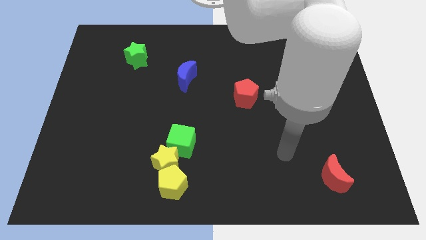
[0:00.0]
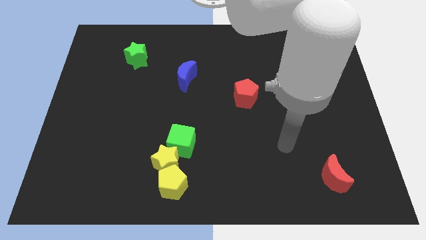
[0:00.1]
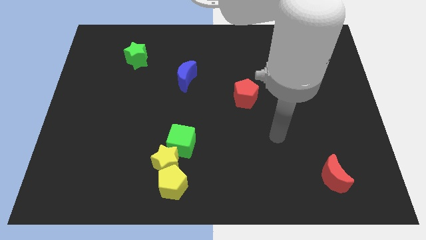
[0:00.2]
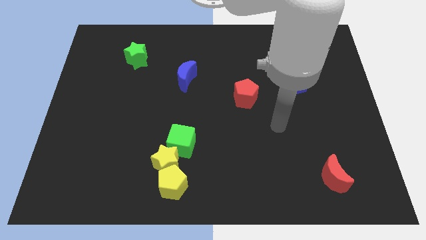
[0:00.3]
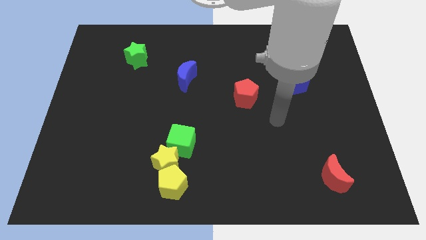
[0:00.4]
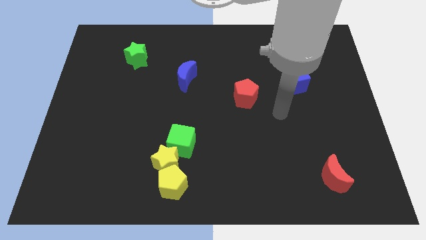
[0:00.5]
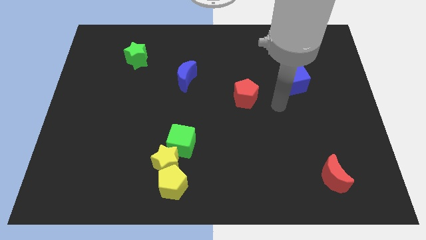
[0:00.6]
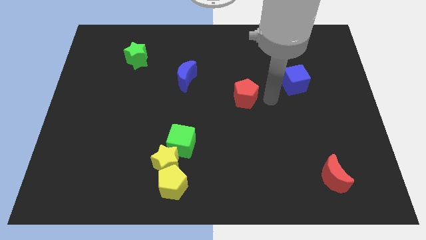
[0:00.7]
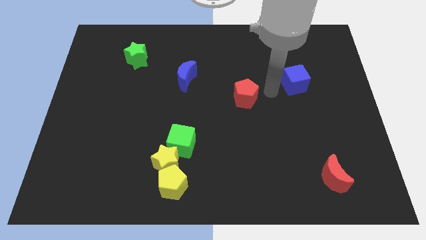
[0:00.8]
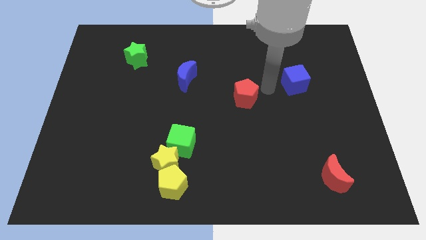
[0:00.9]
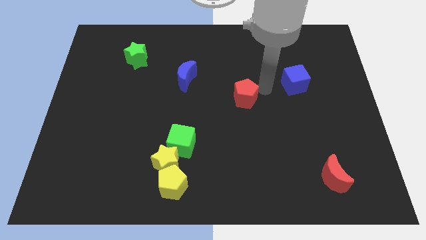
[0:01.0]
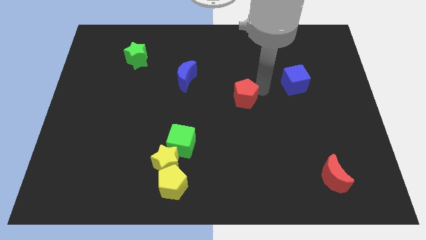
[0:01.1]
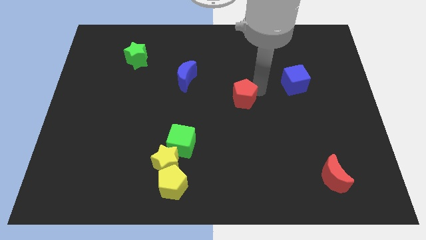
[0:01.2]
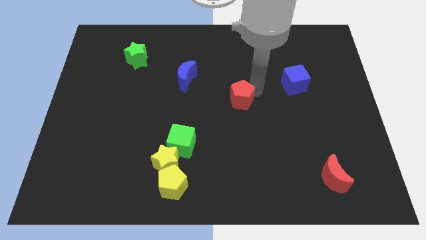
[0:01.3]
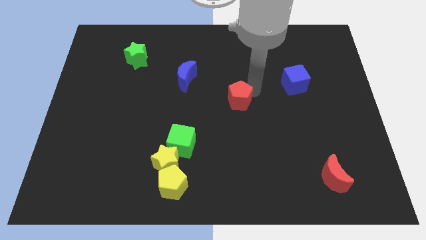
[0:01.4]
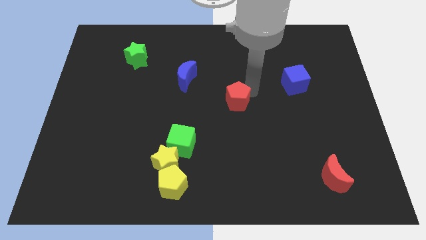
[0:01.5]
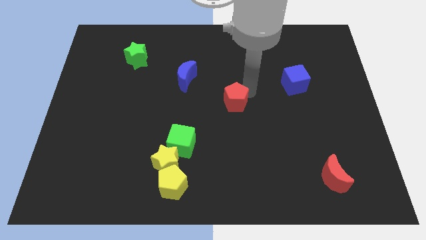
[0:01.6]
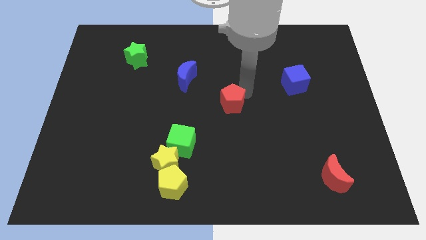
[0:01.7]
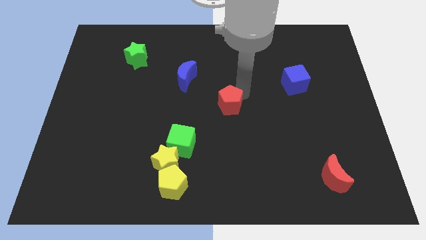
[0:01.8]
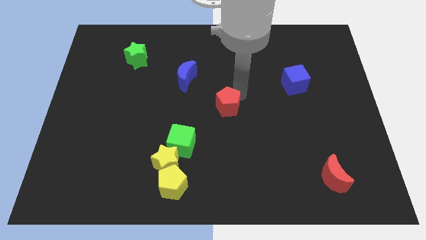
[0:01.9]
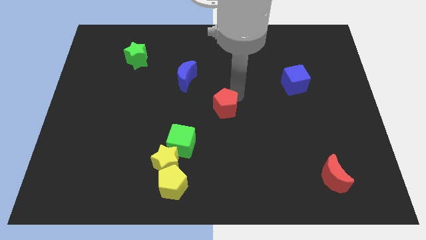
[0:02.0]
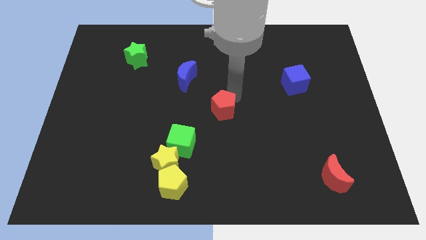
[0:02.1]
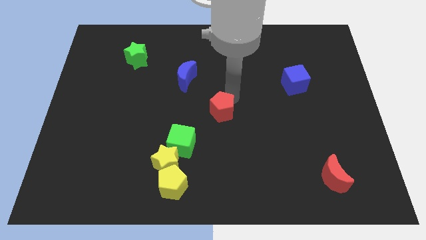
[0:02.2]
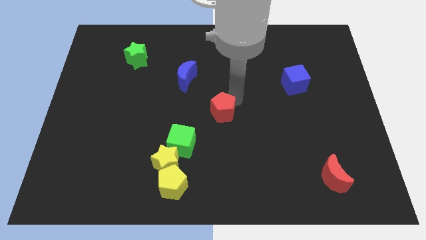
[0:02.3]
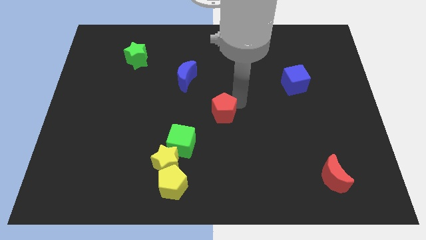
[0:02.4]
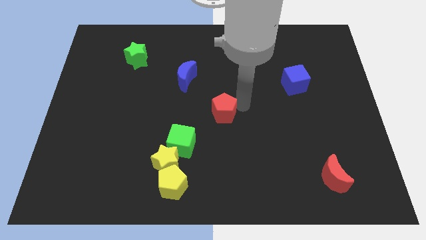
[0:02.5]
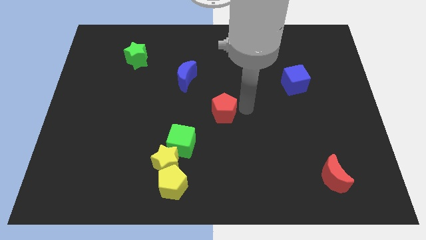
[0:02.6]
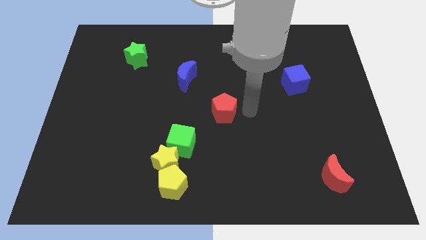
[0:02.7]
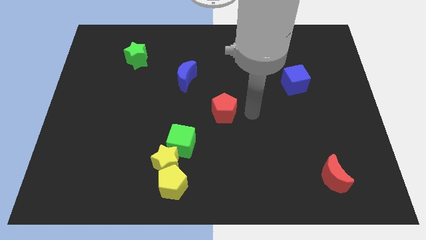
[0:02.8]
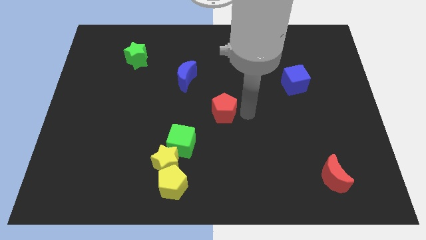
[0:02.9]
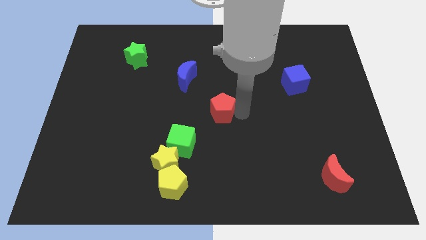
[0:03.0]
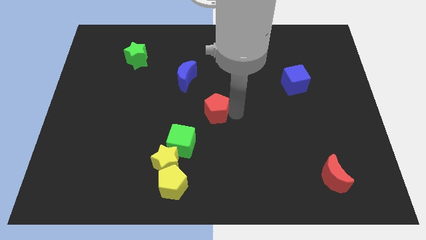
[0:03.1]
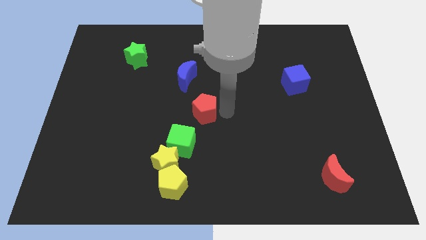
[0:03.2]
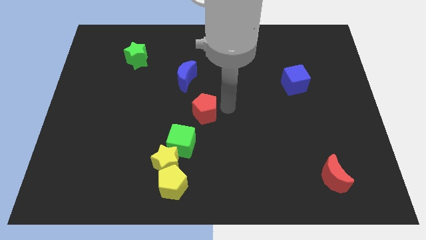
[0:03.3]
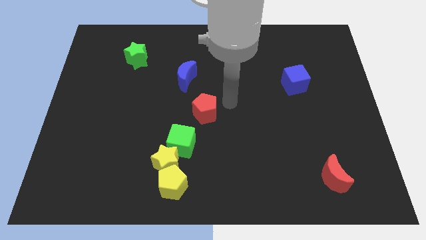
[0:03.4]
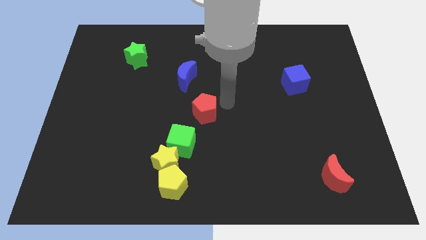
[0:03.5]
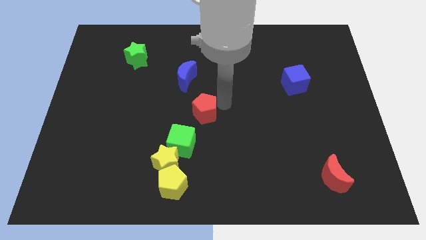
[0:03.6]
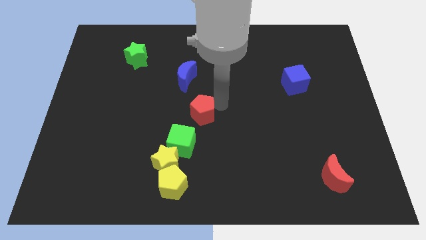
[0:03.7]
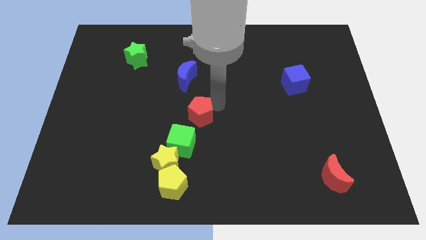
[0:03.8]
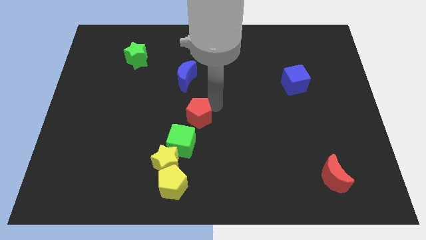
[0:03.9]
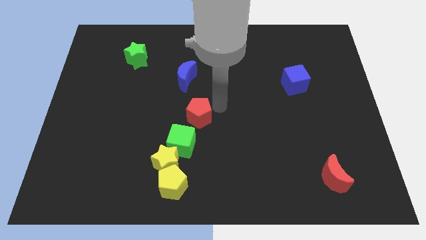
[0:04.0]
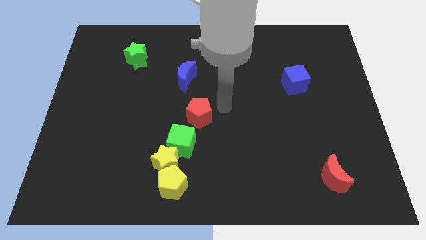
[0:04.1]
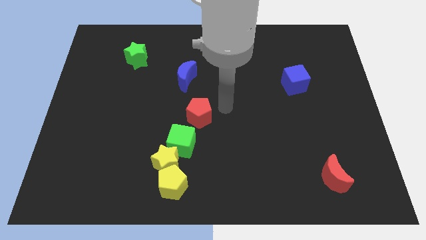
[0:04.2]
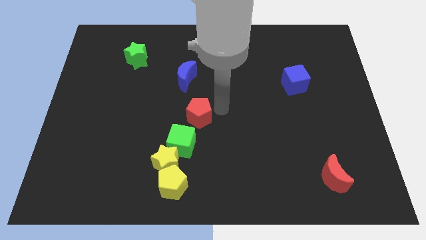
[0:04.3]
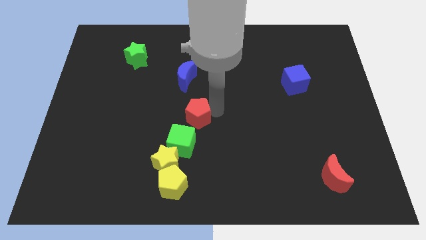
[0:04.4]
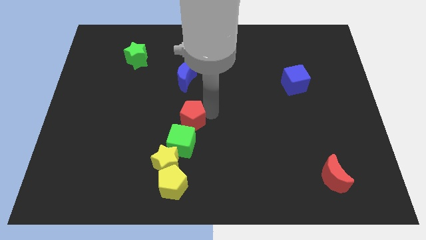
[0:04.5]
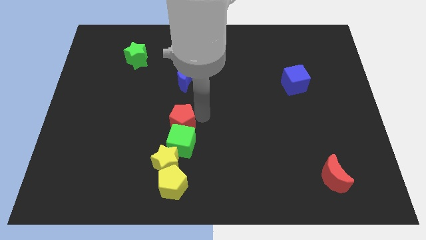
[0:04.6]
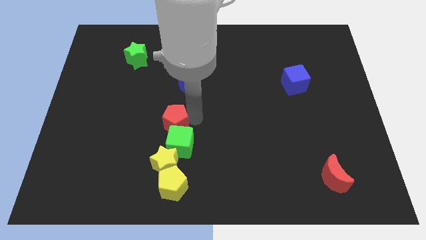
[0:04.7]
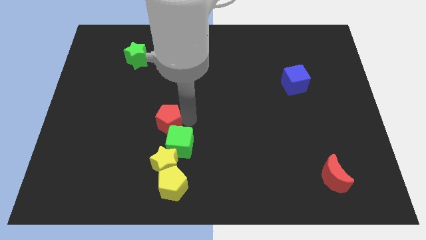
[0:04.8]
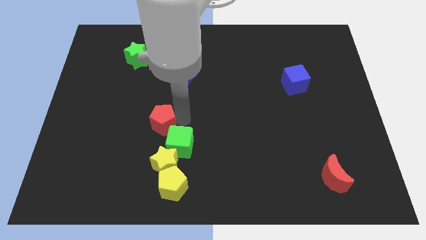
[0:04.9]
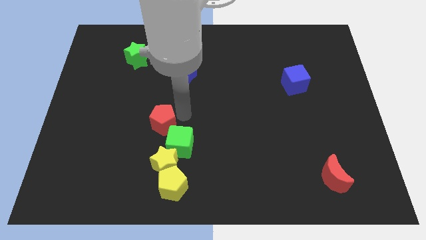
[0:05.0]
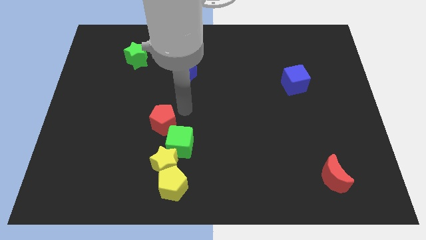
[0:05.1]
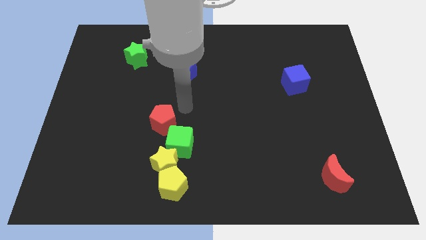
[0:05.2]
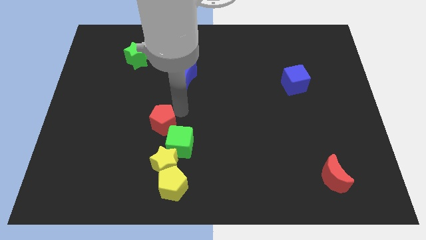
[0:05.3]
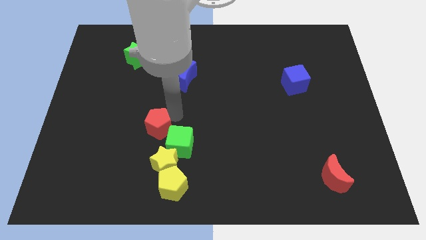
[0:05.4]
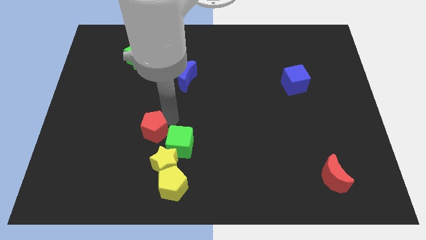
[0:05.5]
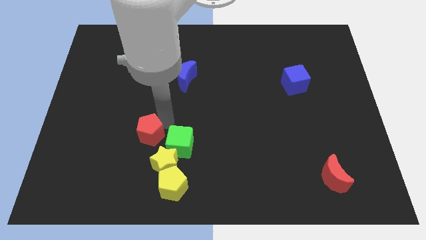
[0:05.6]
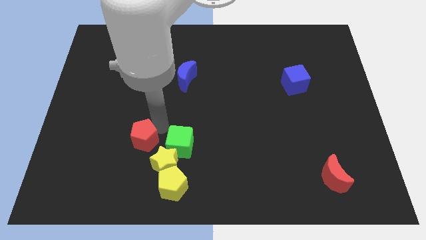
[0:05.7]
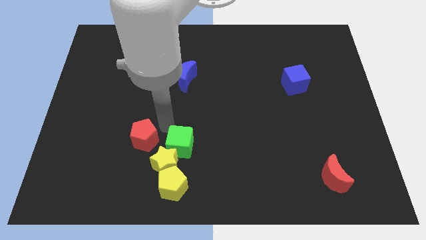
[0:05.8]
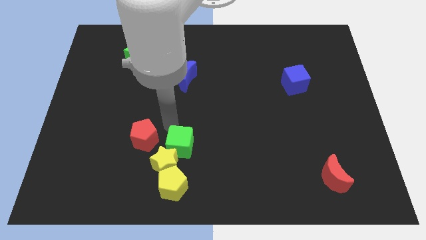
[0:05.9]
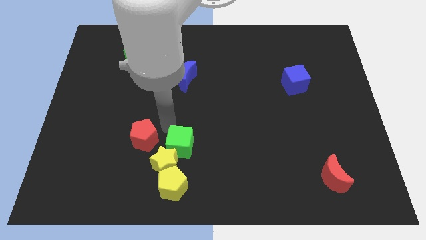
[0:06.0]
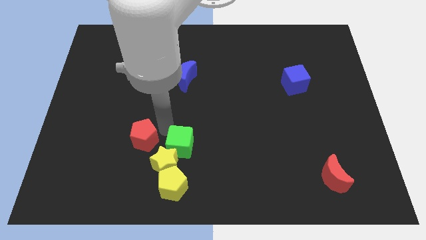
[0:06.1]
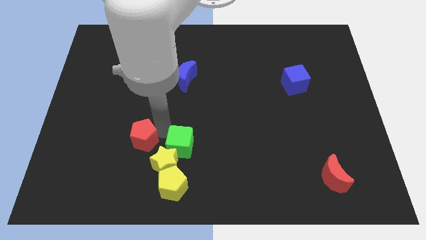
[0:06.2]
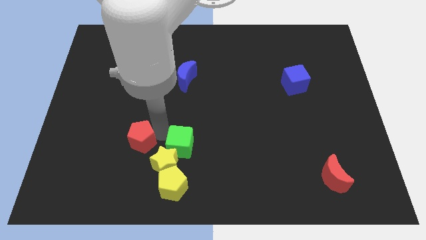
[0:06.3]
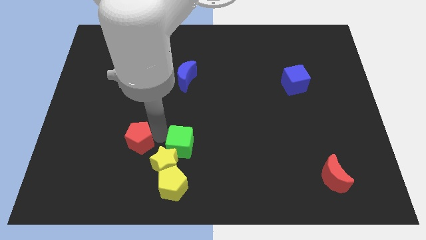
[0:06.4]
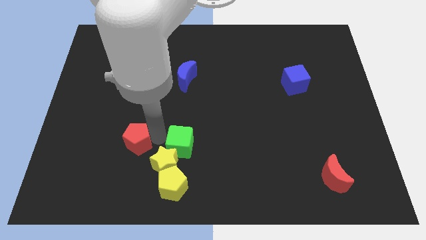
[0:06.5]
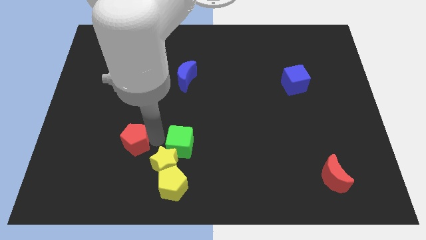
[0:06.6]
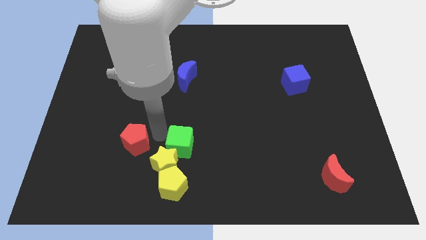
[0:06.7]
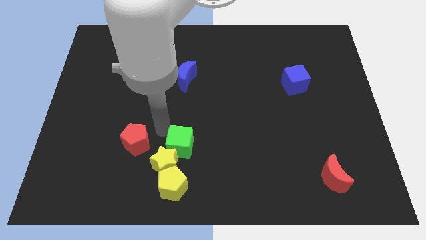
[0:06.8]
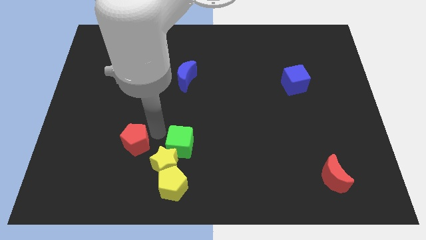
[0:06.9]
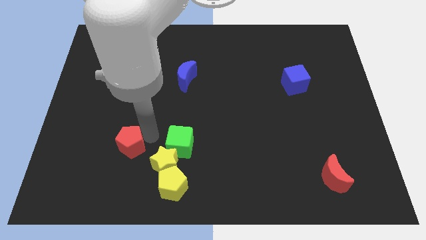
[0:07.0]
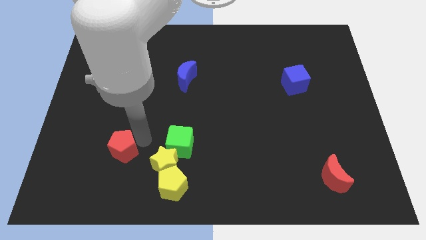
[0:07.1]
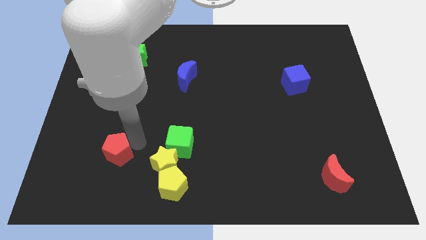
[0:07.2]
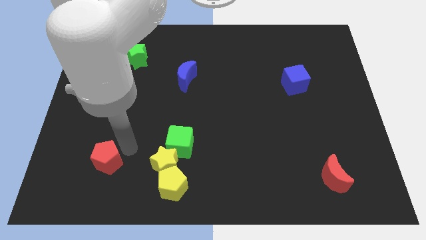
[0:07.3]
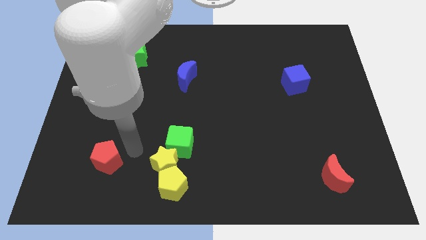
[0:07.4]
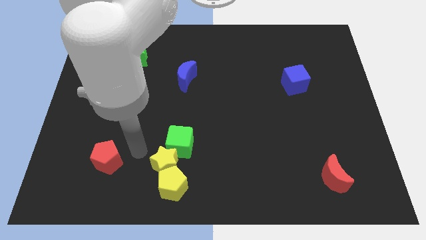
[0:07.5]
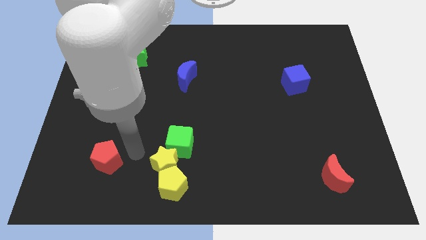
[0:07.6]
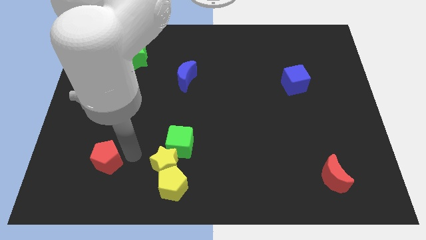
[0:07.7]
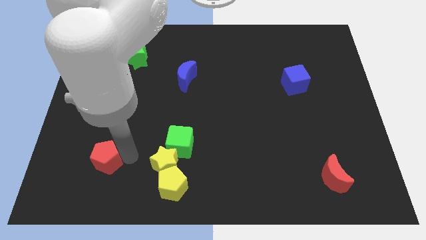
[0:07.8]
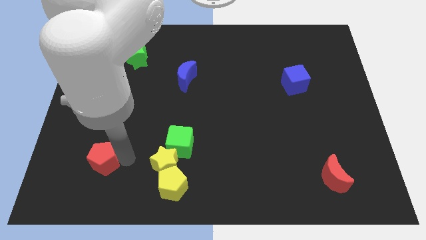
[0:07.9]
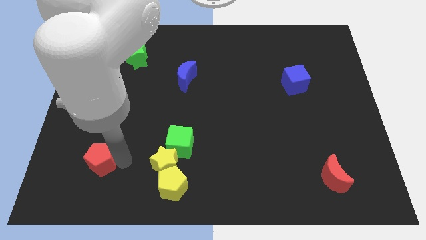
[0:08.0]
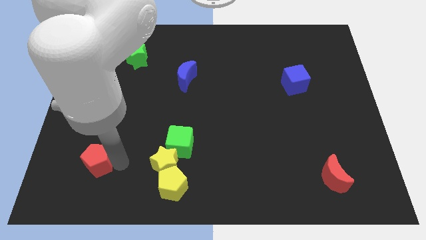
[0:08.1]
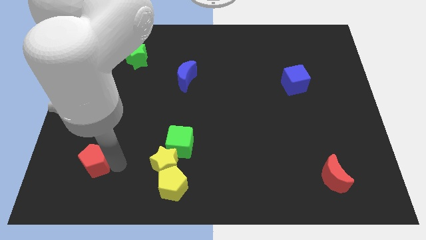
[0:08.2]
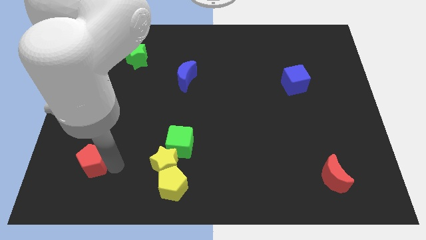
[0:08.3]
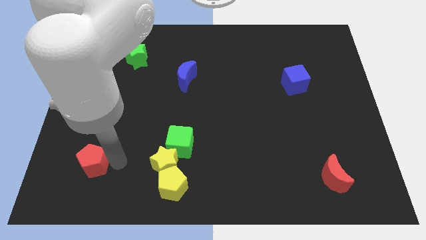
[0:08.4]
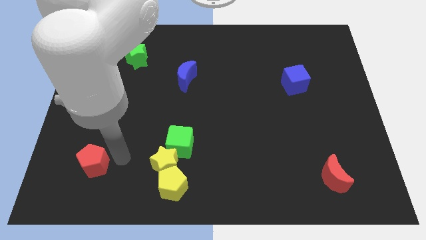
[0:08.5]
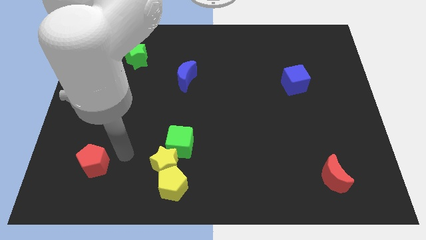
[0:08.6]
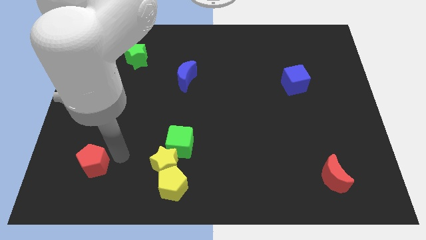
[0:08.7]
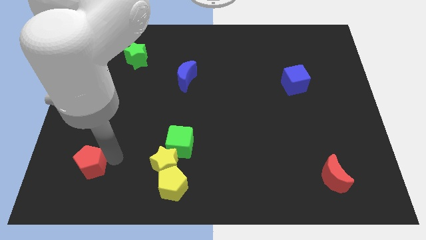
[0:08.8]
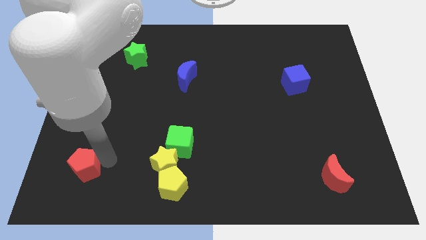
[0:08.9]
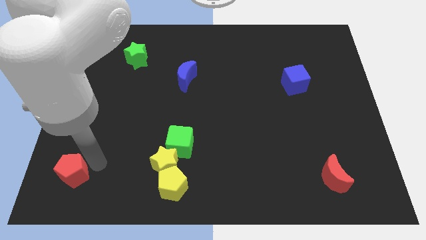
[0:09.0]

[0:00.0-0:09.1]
push the red pentagon to the bottom left corner
